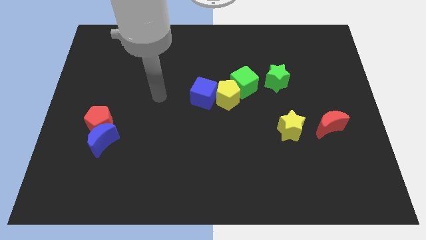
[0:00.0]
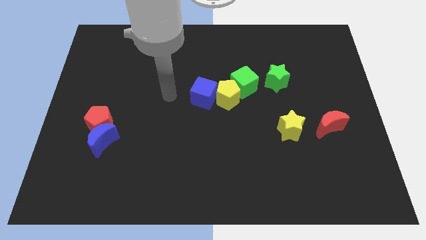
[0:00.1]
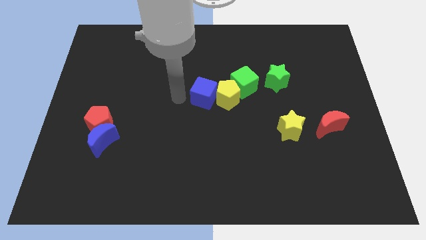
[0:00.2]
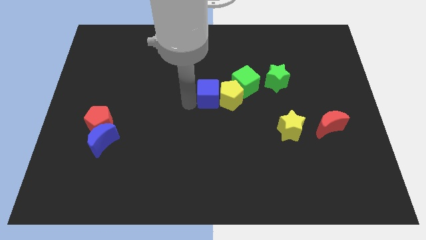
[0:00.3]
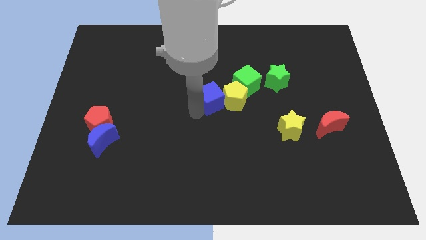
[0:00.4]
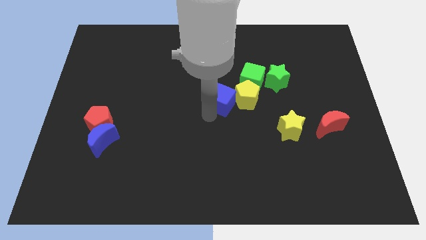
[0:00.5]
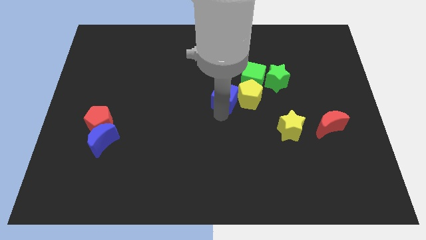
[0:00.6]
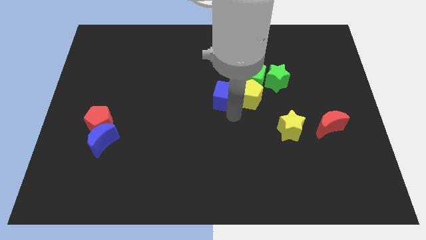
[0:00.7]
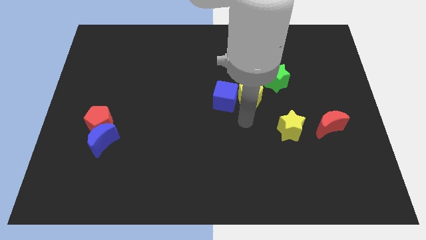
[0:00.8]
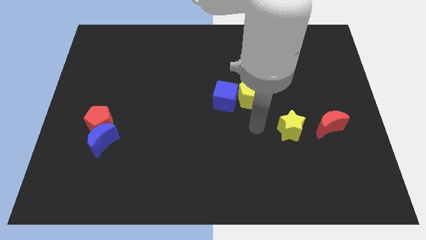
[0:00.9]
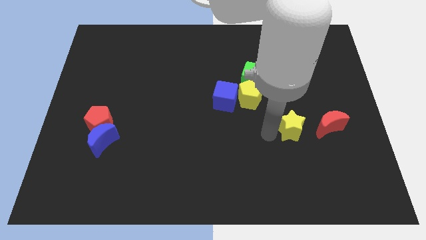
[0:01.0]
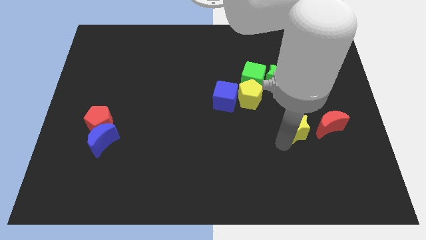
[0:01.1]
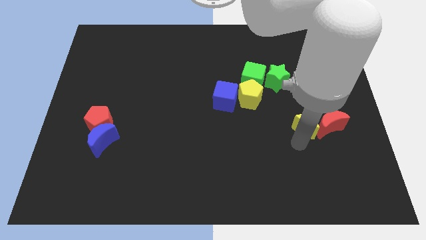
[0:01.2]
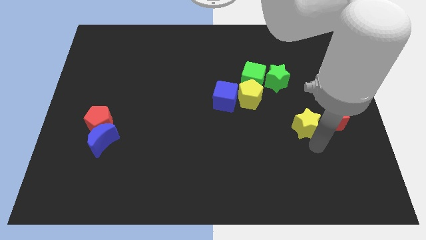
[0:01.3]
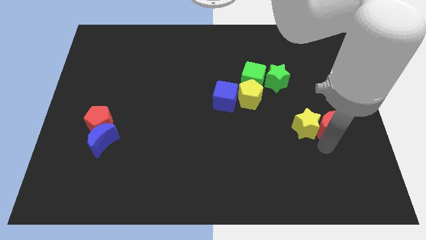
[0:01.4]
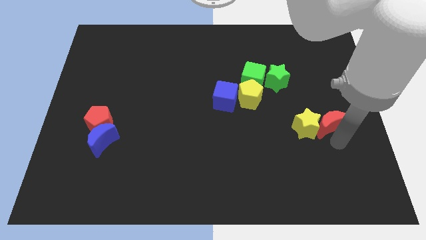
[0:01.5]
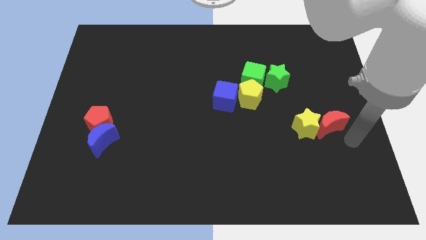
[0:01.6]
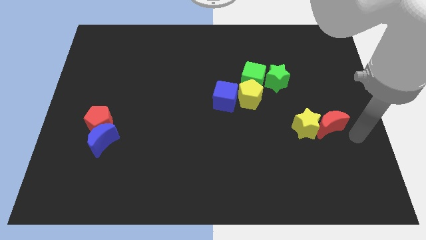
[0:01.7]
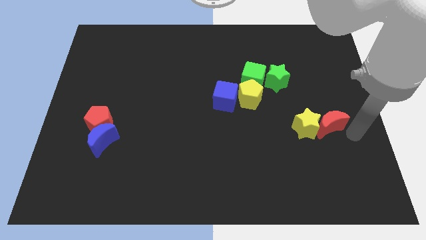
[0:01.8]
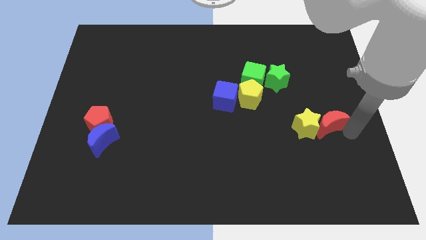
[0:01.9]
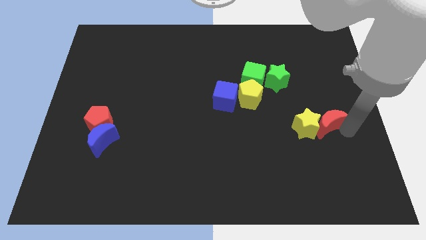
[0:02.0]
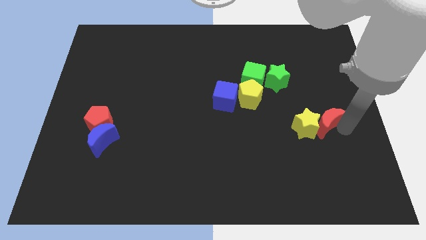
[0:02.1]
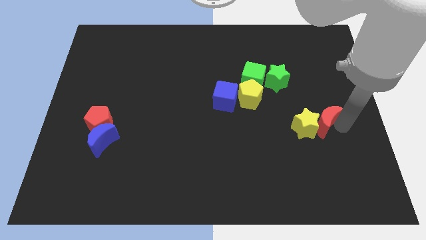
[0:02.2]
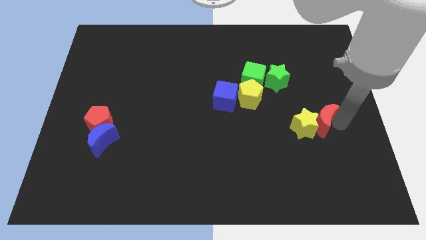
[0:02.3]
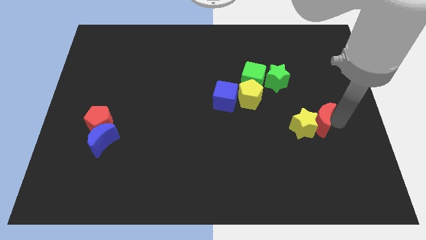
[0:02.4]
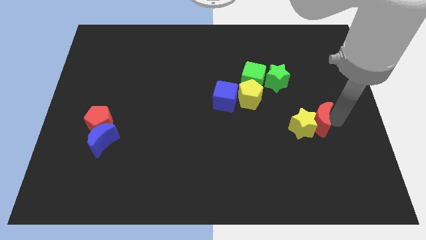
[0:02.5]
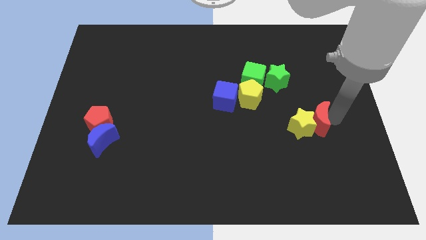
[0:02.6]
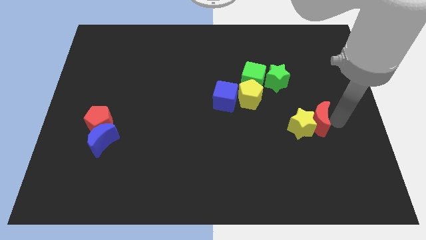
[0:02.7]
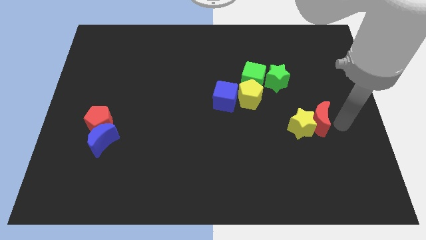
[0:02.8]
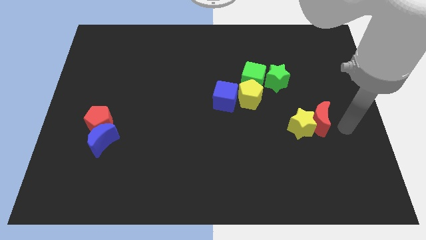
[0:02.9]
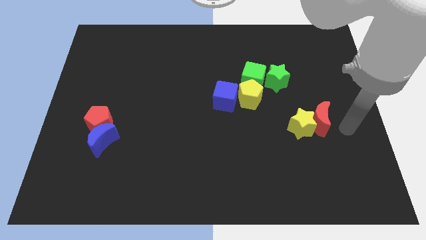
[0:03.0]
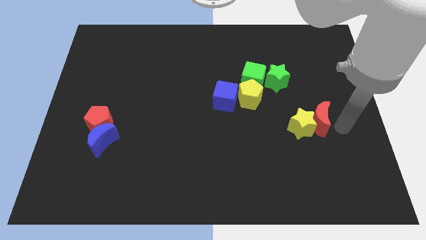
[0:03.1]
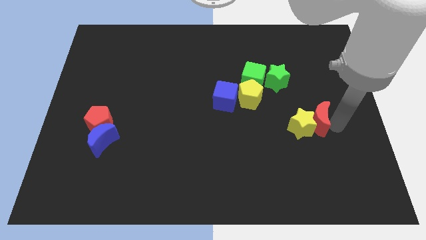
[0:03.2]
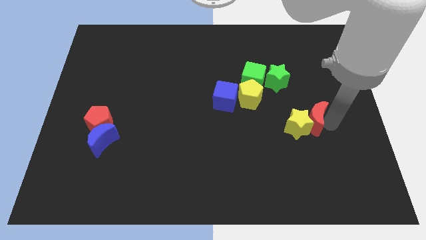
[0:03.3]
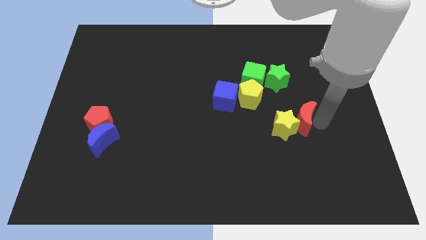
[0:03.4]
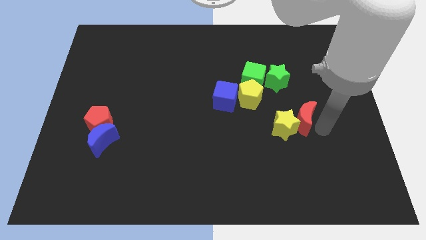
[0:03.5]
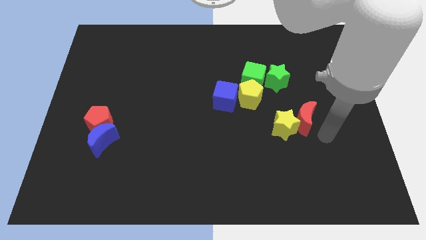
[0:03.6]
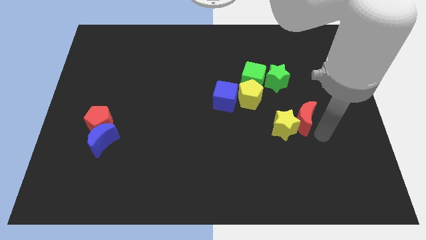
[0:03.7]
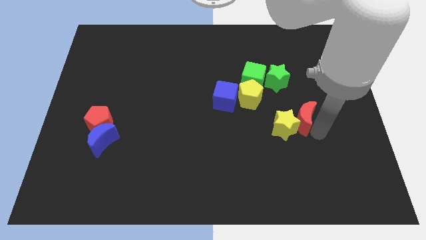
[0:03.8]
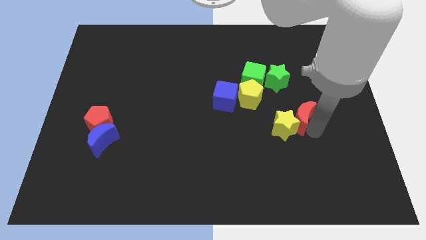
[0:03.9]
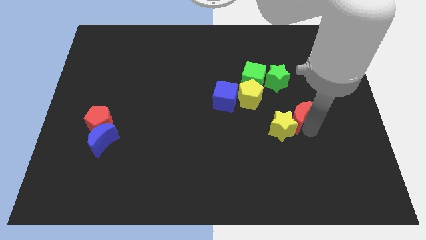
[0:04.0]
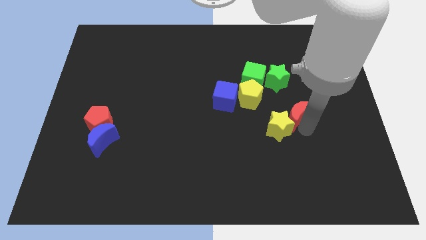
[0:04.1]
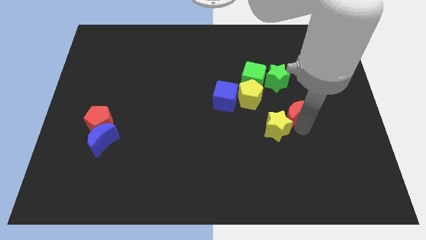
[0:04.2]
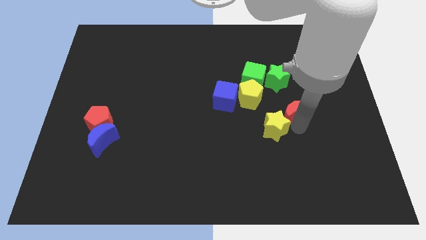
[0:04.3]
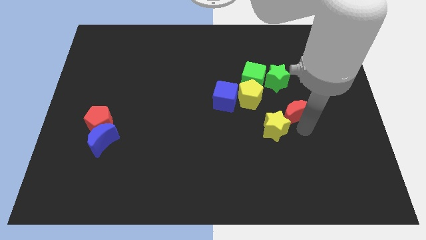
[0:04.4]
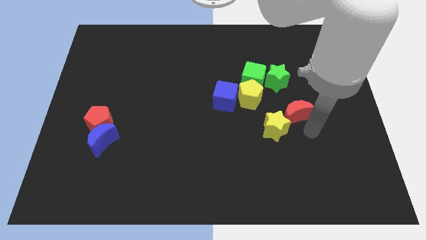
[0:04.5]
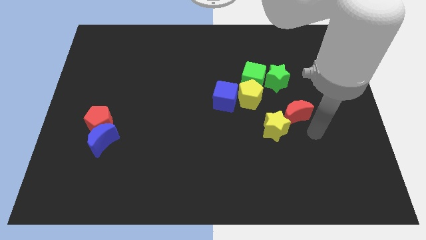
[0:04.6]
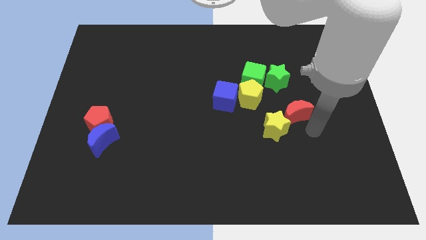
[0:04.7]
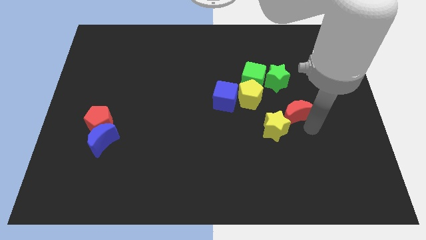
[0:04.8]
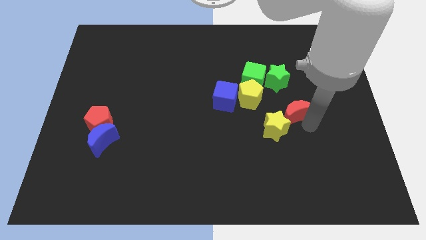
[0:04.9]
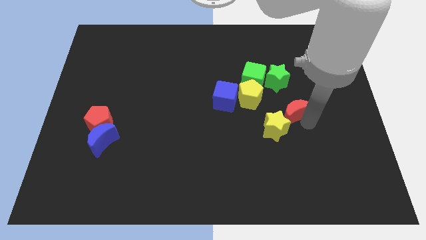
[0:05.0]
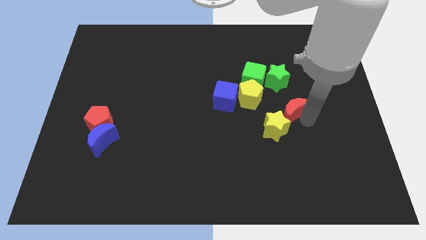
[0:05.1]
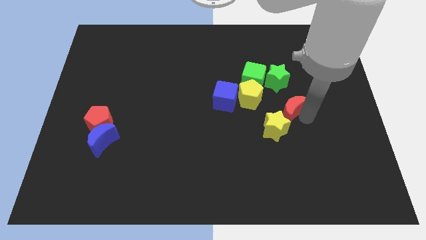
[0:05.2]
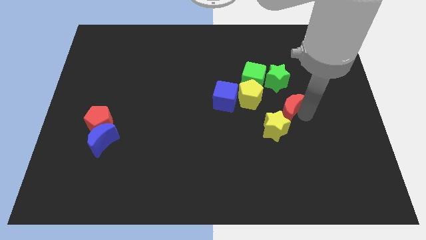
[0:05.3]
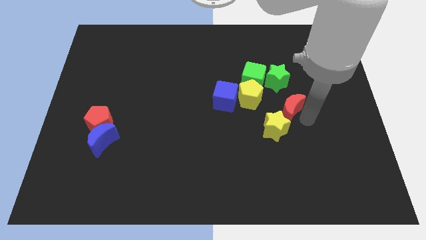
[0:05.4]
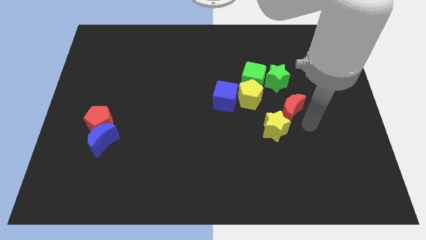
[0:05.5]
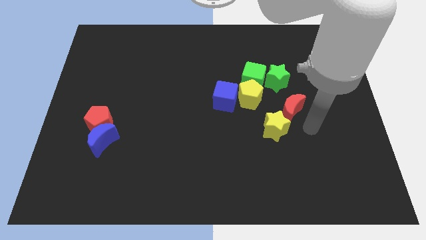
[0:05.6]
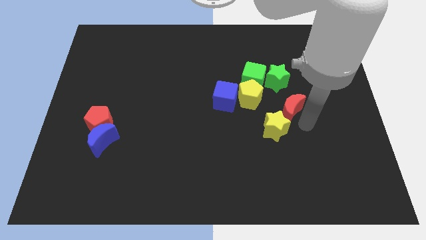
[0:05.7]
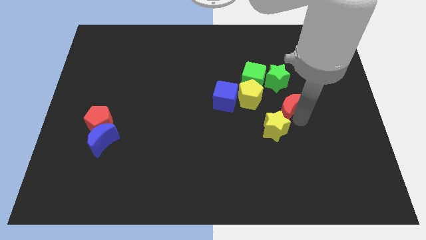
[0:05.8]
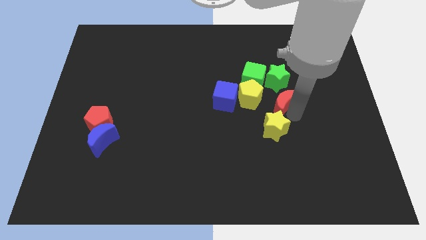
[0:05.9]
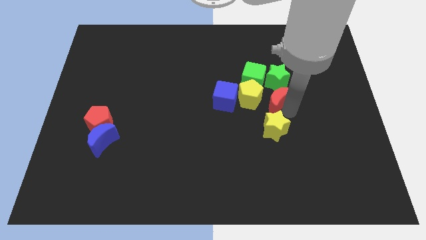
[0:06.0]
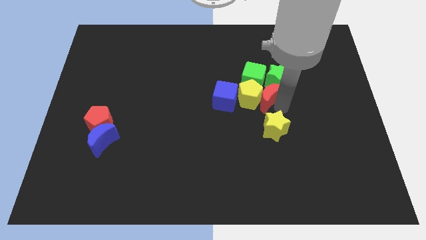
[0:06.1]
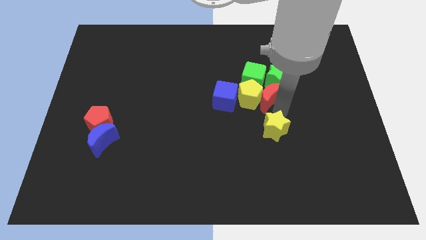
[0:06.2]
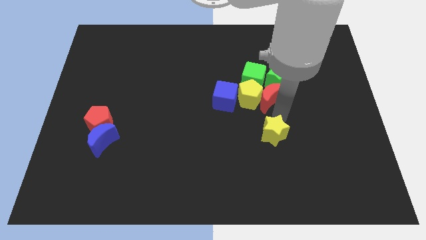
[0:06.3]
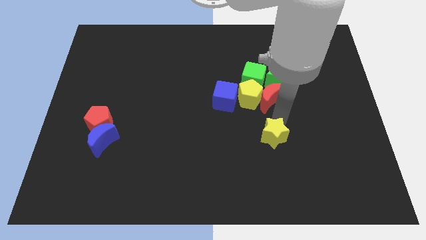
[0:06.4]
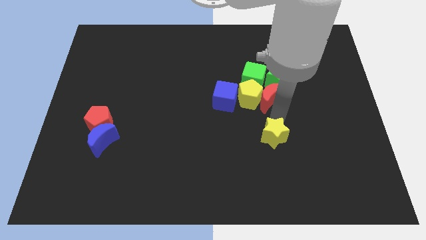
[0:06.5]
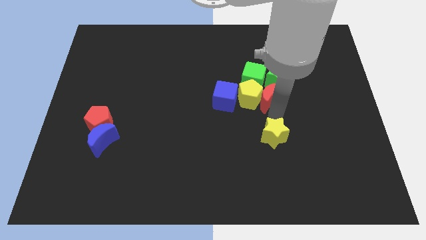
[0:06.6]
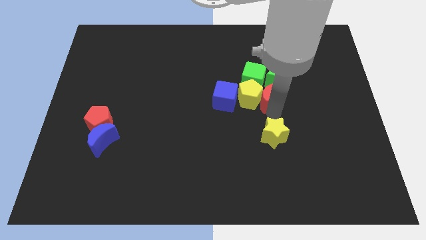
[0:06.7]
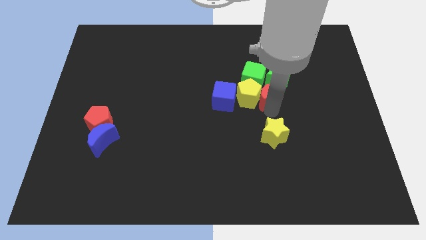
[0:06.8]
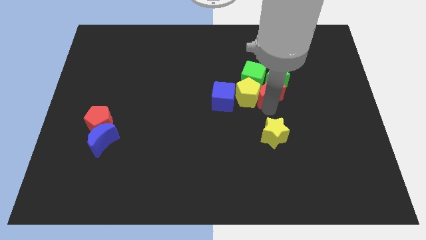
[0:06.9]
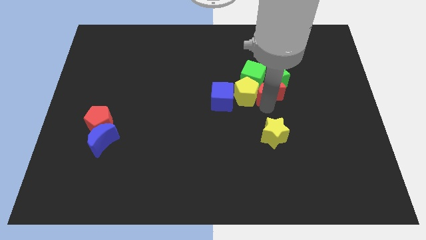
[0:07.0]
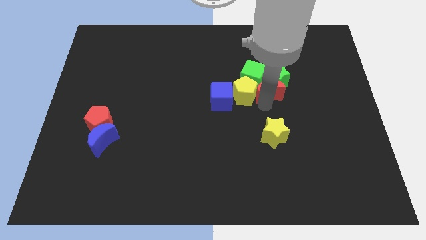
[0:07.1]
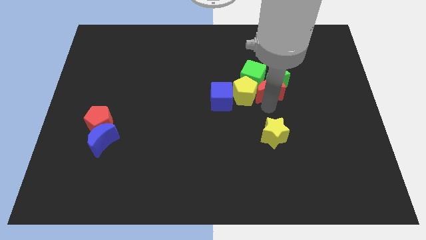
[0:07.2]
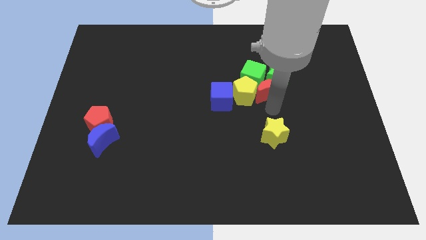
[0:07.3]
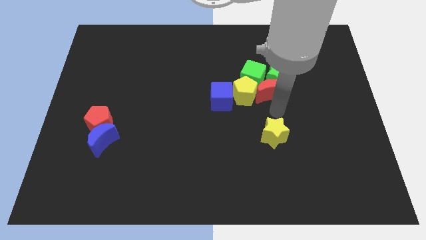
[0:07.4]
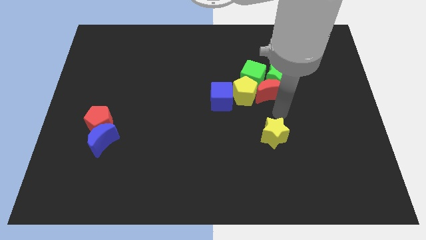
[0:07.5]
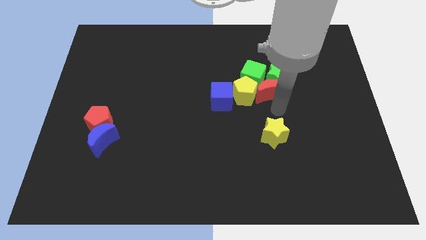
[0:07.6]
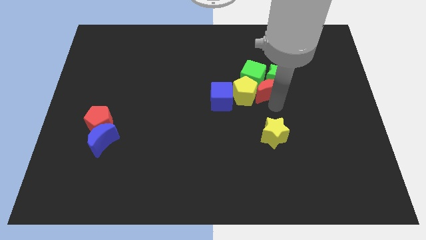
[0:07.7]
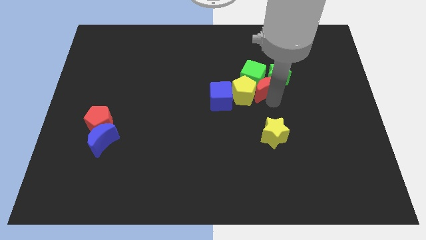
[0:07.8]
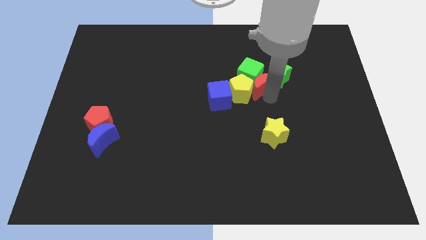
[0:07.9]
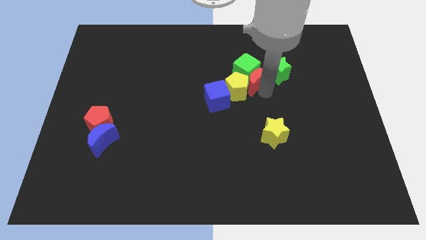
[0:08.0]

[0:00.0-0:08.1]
move the red moon to the top right side of the blue cube
